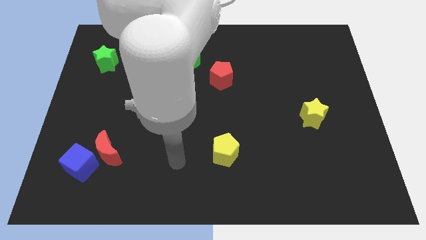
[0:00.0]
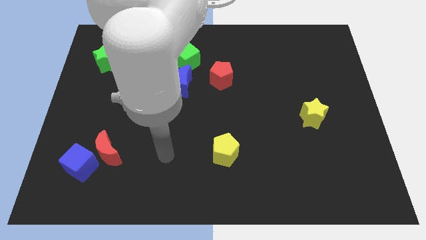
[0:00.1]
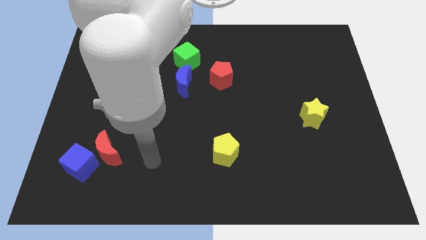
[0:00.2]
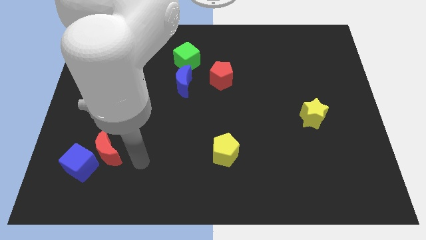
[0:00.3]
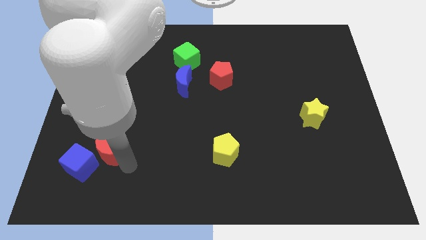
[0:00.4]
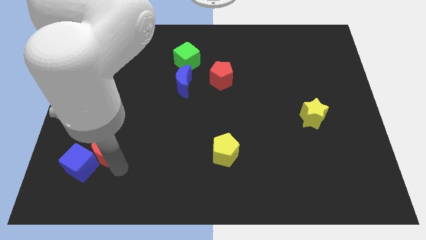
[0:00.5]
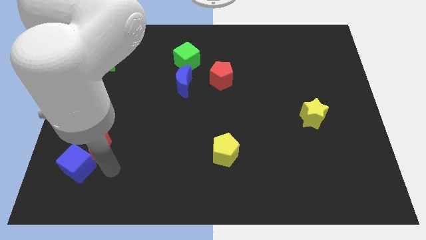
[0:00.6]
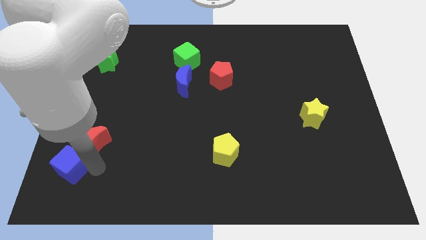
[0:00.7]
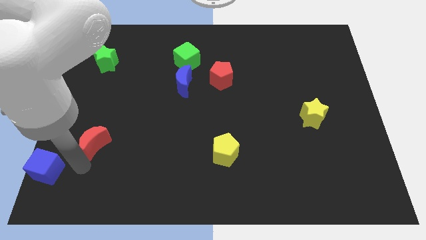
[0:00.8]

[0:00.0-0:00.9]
pull the red moon apart from the blue cube

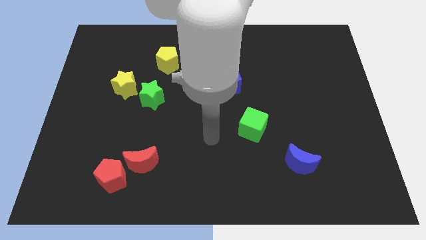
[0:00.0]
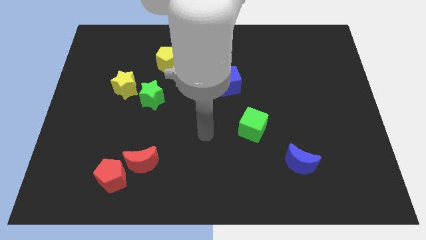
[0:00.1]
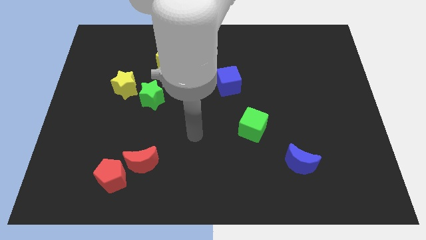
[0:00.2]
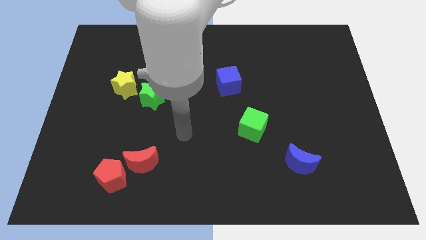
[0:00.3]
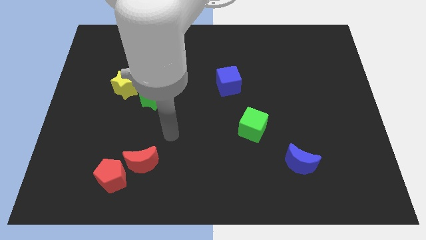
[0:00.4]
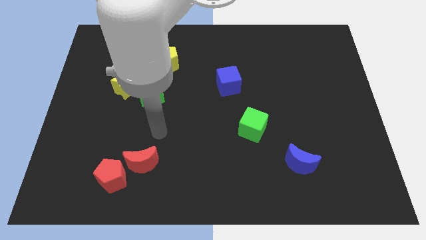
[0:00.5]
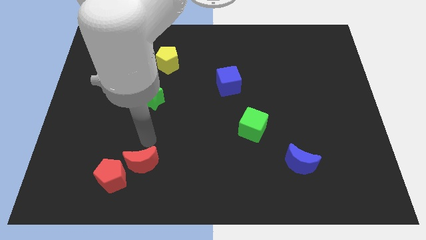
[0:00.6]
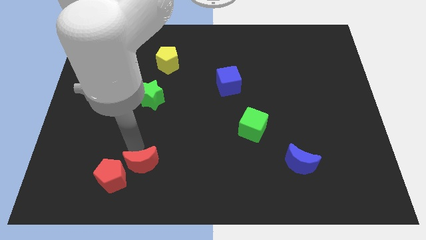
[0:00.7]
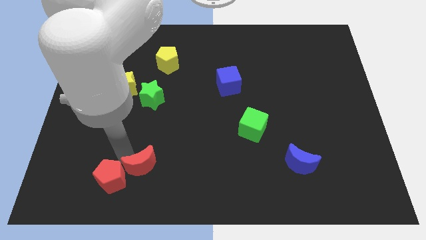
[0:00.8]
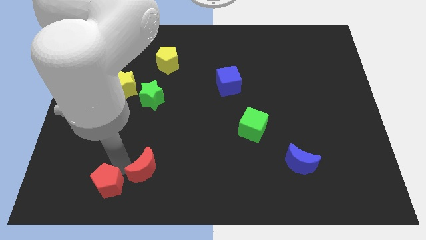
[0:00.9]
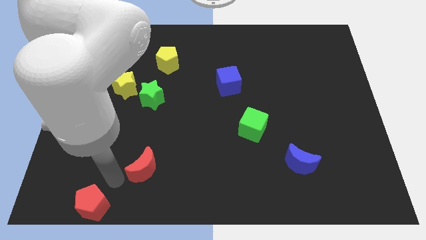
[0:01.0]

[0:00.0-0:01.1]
separate the red moon from the red pentagon

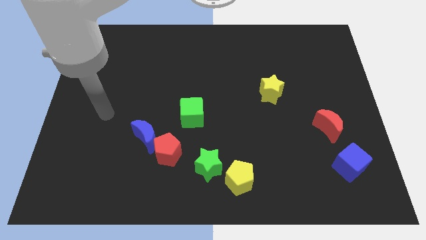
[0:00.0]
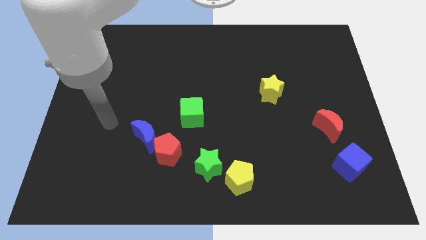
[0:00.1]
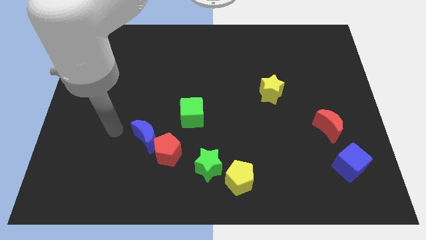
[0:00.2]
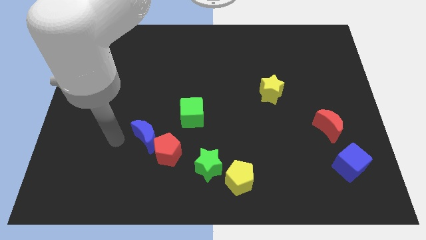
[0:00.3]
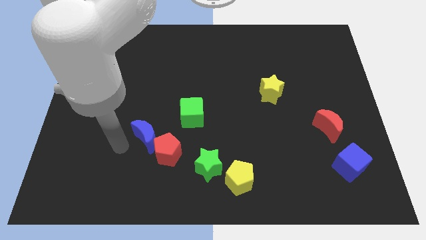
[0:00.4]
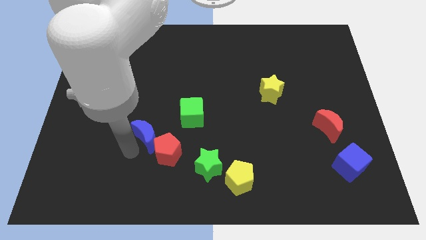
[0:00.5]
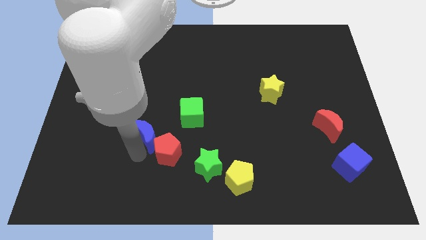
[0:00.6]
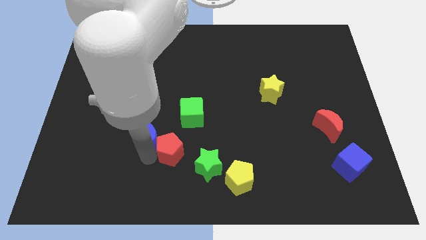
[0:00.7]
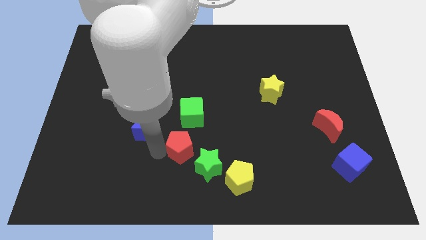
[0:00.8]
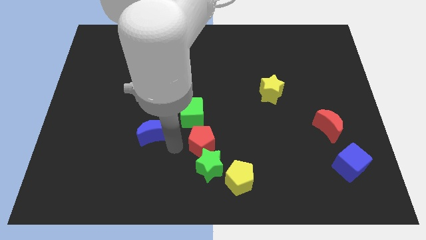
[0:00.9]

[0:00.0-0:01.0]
separate the blue moon from the red pentagon

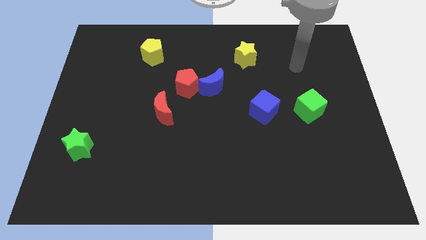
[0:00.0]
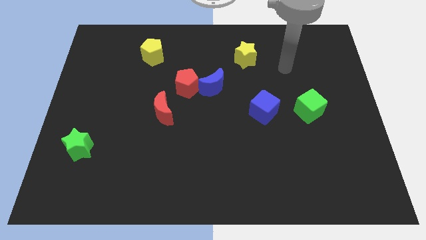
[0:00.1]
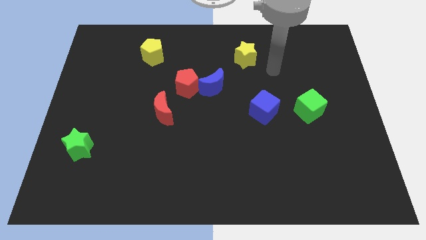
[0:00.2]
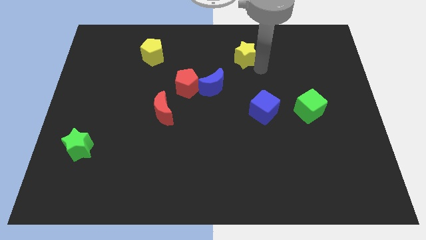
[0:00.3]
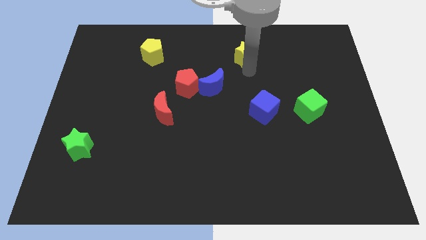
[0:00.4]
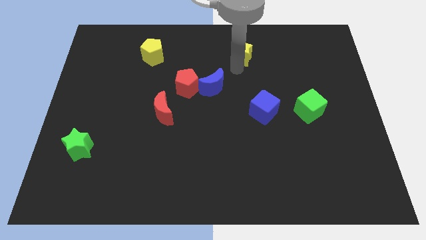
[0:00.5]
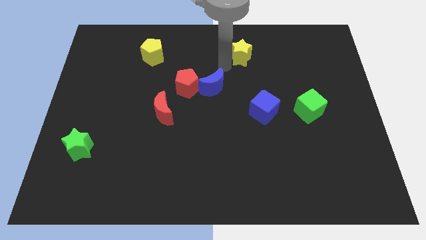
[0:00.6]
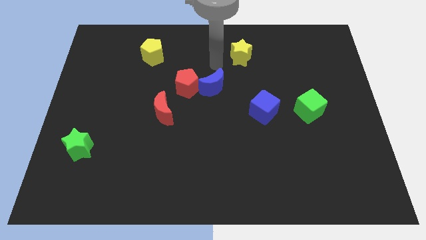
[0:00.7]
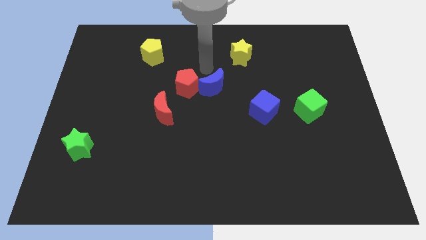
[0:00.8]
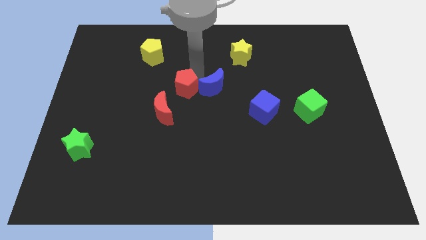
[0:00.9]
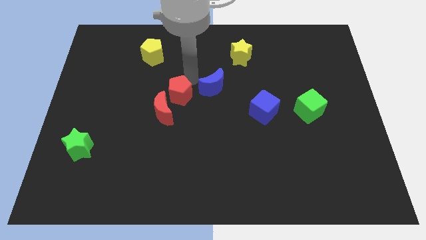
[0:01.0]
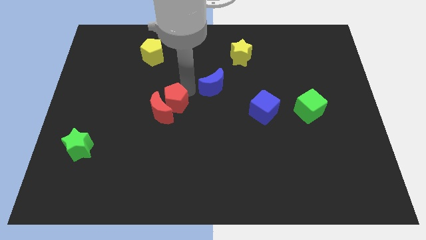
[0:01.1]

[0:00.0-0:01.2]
move the blue moon away from the red pentagon

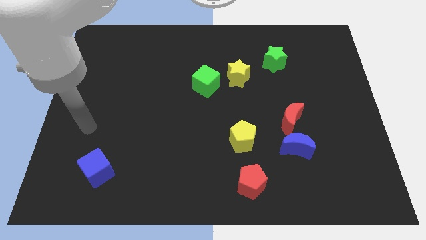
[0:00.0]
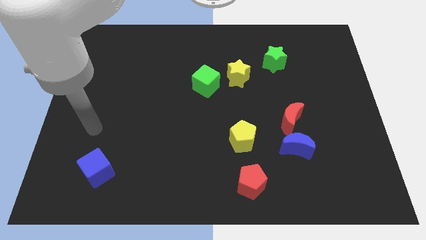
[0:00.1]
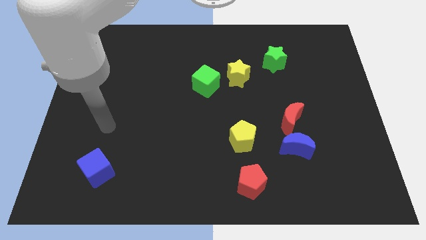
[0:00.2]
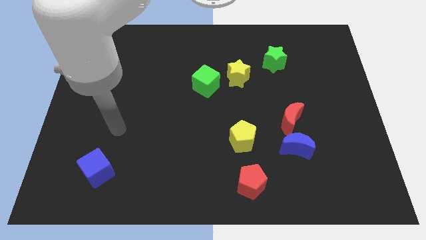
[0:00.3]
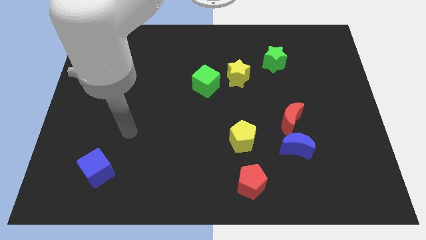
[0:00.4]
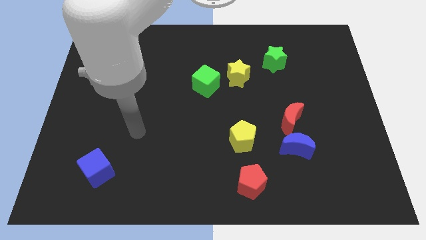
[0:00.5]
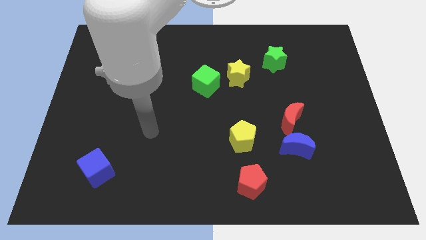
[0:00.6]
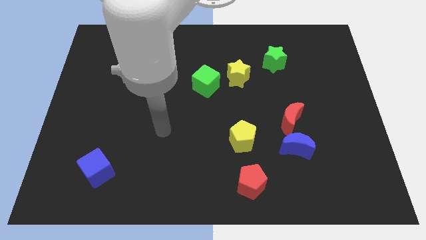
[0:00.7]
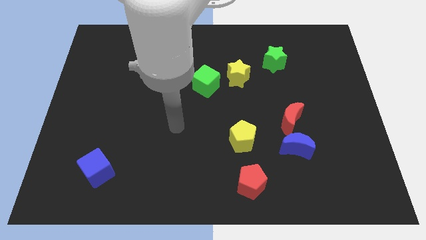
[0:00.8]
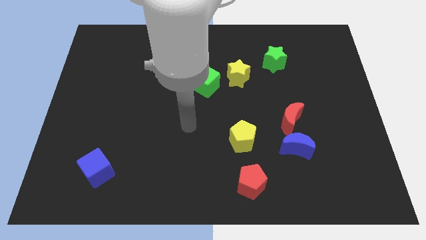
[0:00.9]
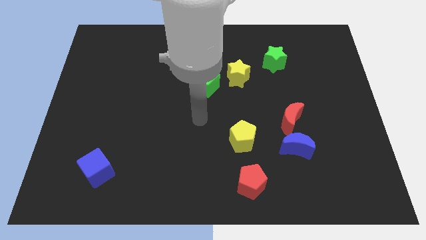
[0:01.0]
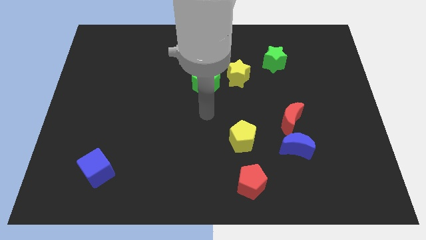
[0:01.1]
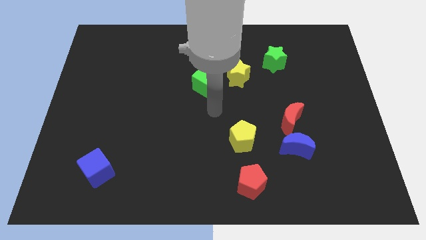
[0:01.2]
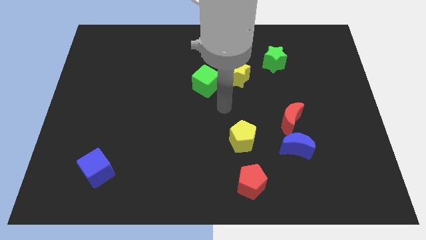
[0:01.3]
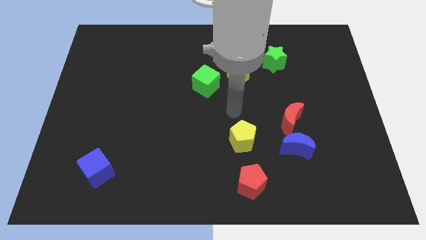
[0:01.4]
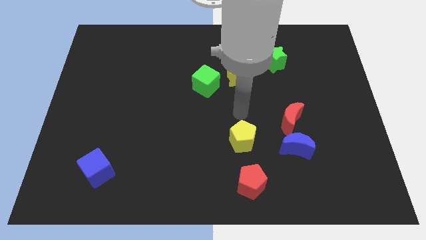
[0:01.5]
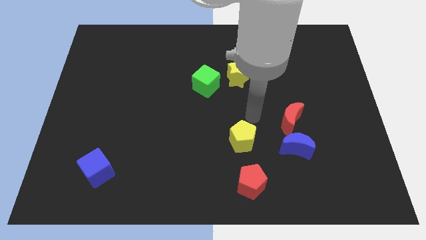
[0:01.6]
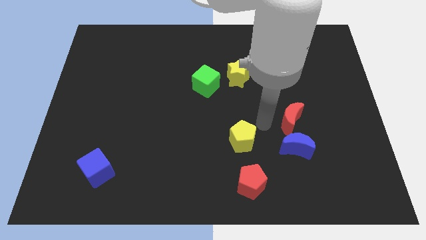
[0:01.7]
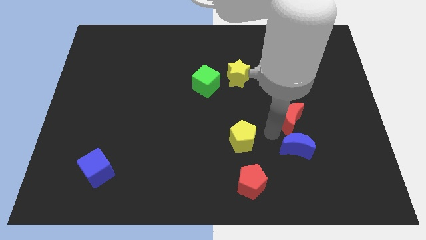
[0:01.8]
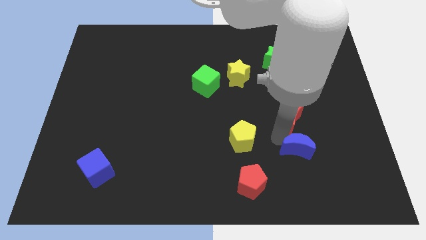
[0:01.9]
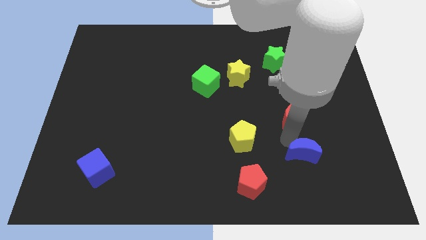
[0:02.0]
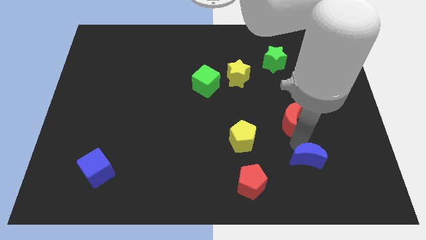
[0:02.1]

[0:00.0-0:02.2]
separate the red moon from the blue moon

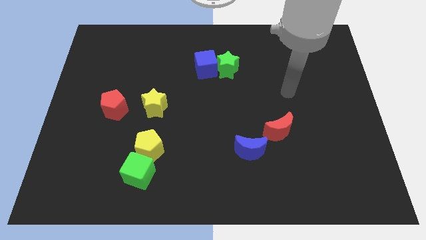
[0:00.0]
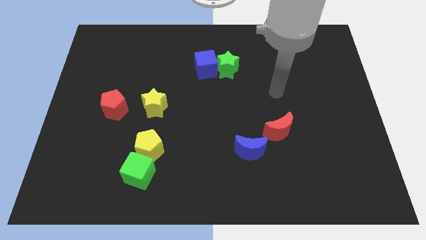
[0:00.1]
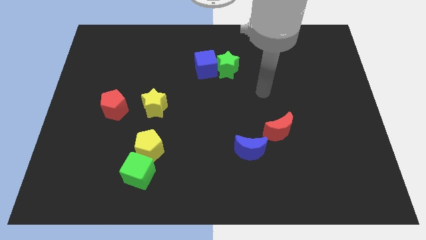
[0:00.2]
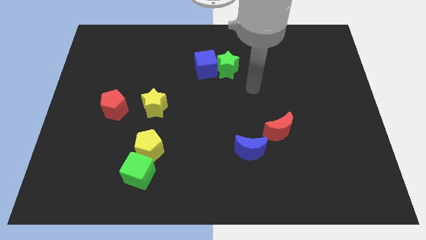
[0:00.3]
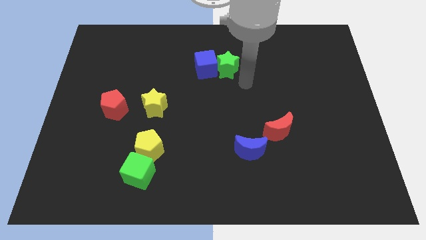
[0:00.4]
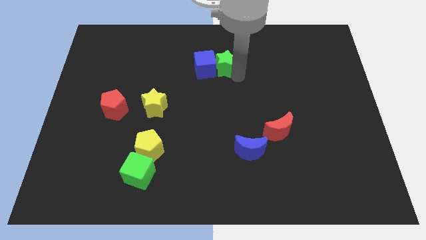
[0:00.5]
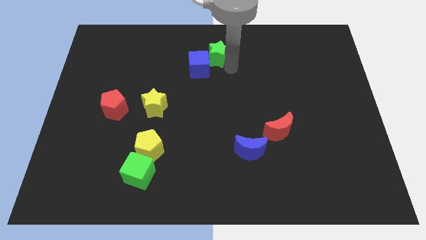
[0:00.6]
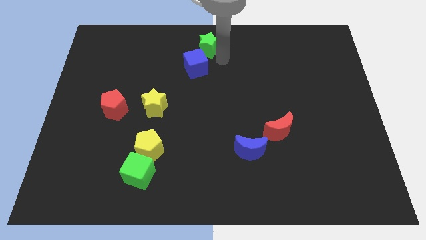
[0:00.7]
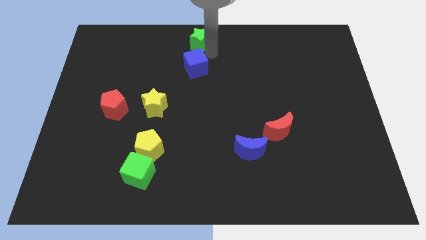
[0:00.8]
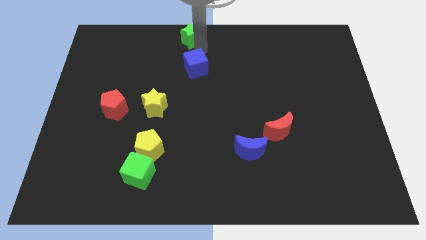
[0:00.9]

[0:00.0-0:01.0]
move the blue cube away from the green star

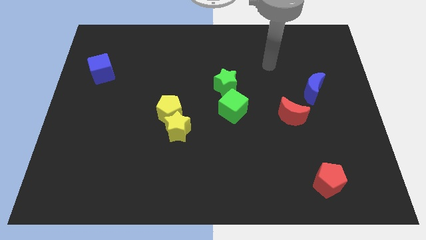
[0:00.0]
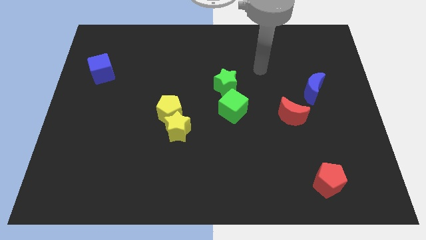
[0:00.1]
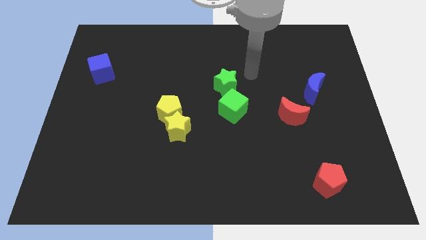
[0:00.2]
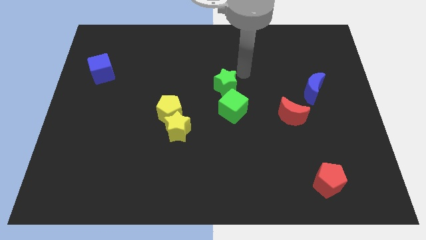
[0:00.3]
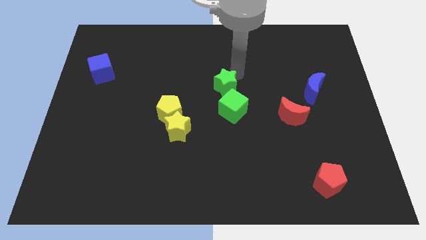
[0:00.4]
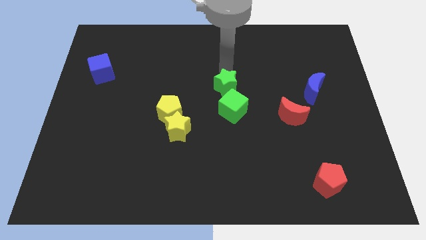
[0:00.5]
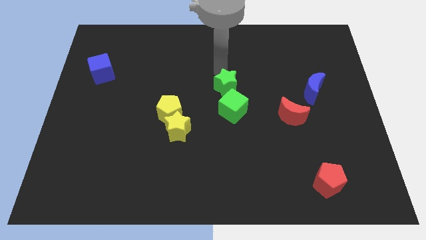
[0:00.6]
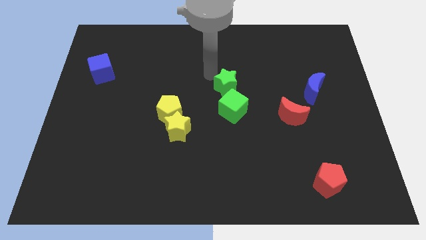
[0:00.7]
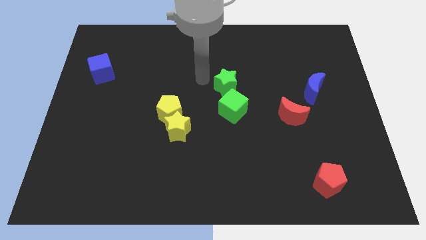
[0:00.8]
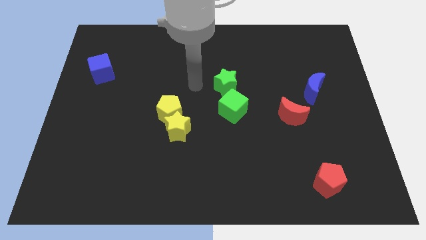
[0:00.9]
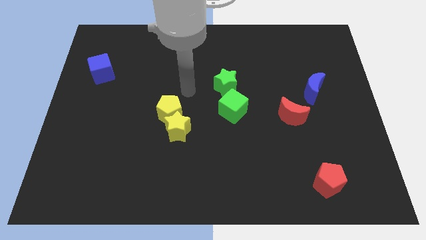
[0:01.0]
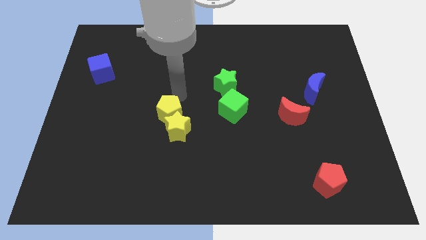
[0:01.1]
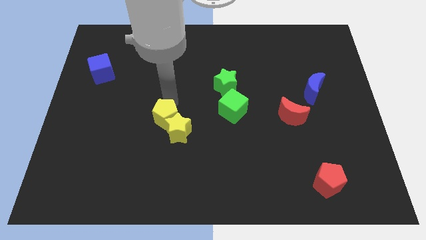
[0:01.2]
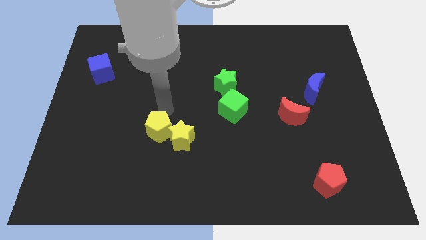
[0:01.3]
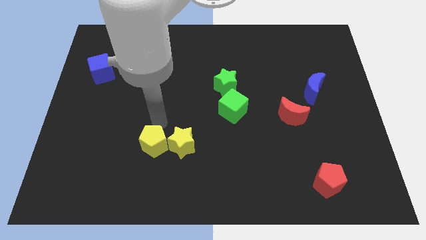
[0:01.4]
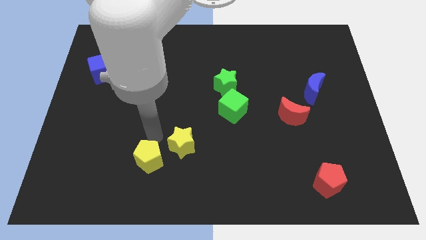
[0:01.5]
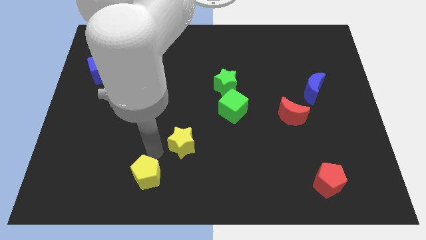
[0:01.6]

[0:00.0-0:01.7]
move the yellow star away from the yellow pentagon

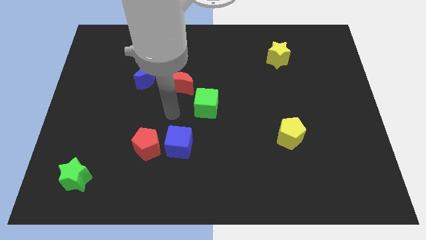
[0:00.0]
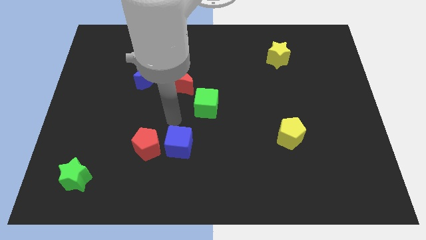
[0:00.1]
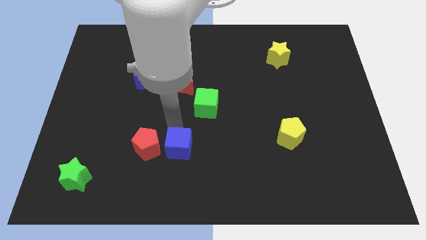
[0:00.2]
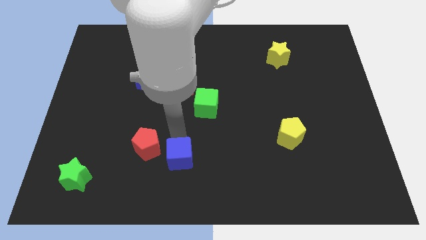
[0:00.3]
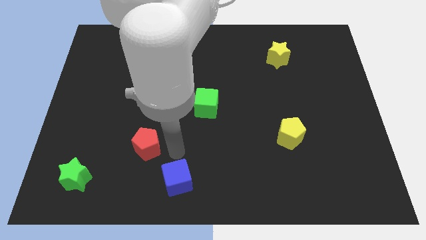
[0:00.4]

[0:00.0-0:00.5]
separate the red pentagon from the blue cube
